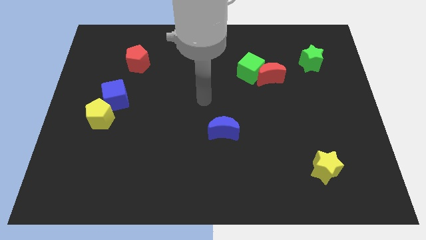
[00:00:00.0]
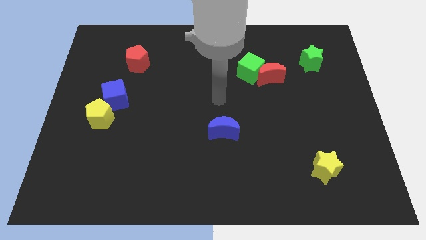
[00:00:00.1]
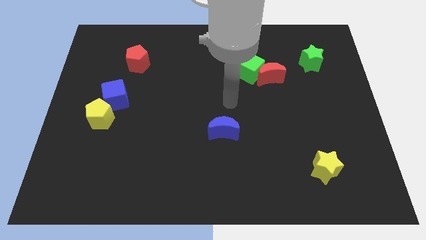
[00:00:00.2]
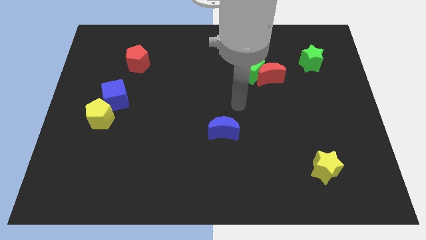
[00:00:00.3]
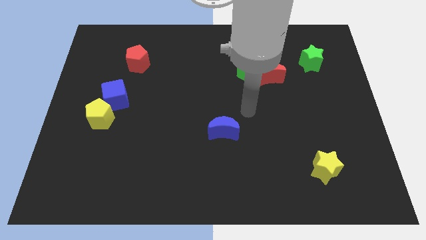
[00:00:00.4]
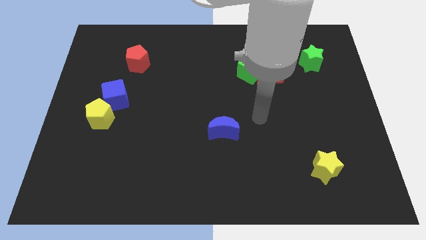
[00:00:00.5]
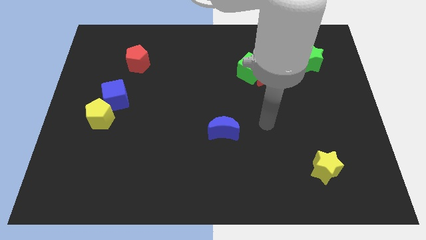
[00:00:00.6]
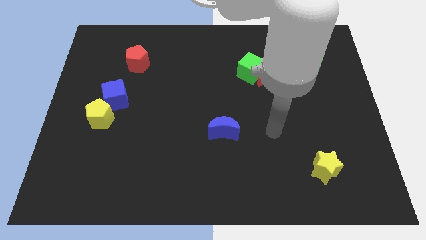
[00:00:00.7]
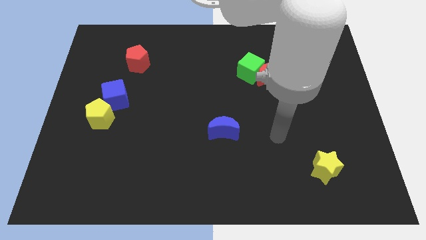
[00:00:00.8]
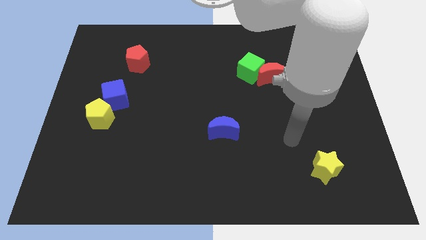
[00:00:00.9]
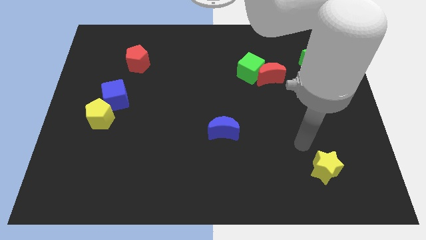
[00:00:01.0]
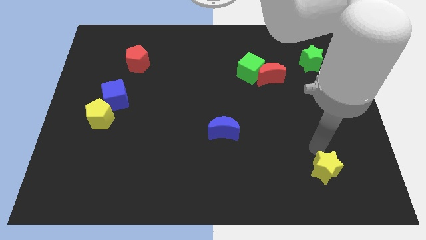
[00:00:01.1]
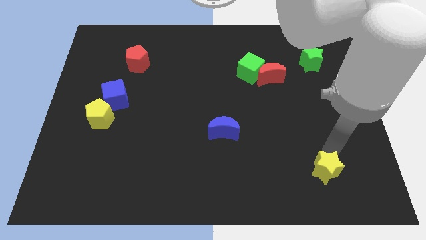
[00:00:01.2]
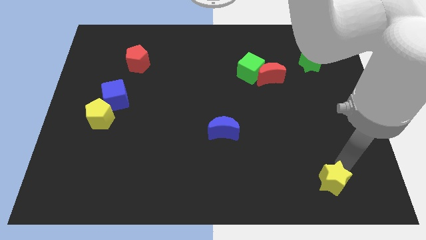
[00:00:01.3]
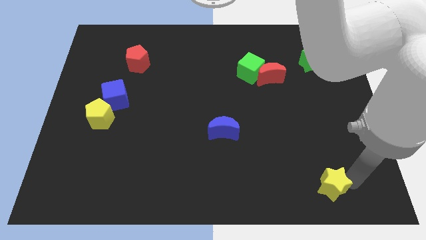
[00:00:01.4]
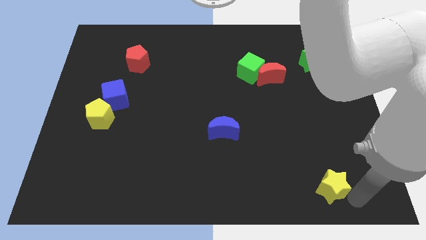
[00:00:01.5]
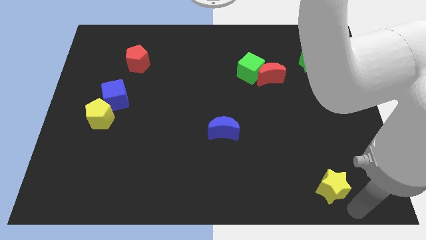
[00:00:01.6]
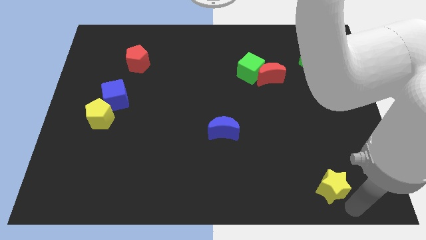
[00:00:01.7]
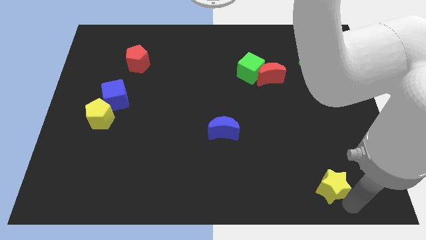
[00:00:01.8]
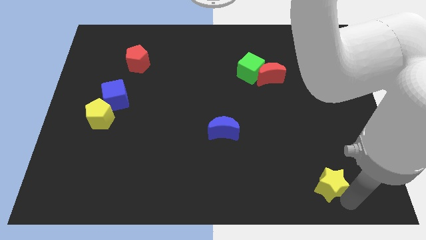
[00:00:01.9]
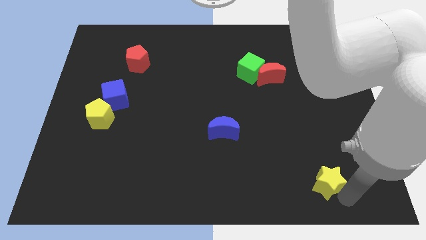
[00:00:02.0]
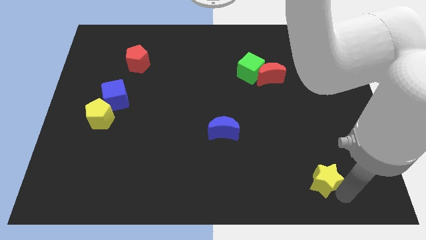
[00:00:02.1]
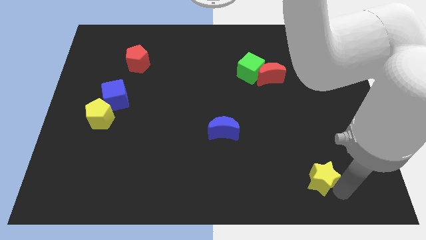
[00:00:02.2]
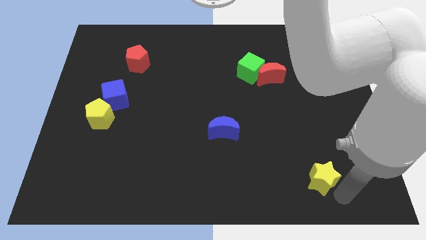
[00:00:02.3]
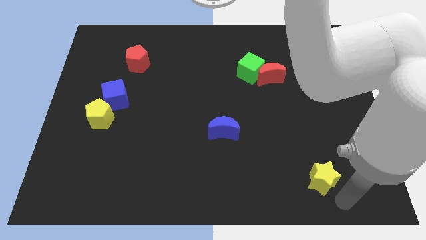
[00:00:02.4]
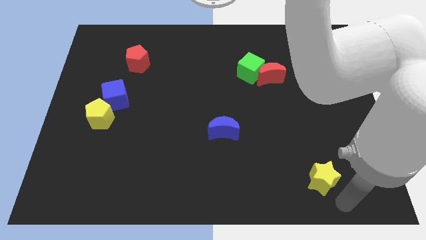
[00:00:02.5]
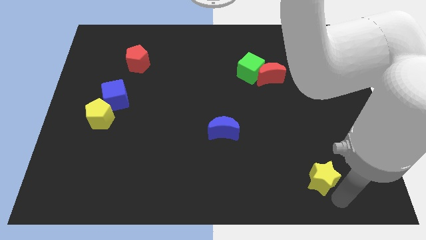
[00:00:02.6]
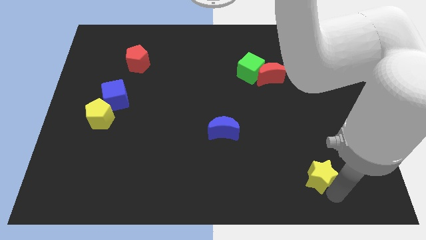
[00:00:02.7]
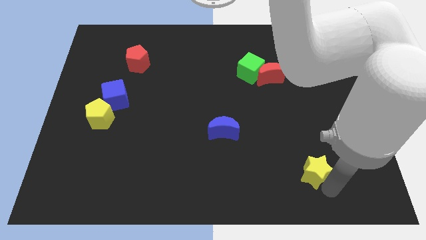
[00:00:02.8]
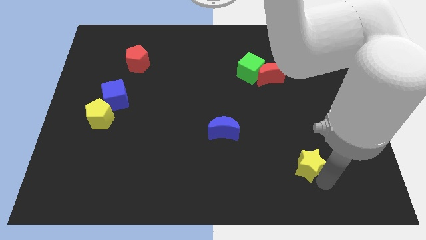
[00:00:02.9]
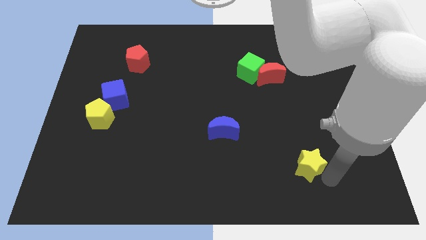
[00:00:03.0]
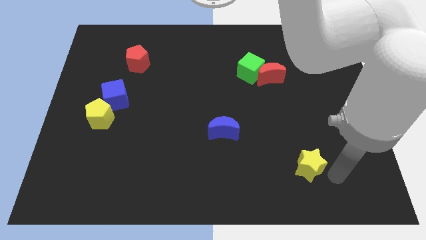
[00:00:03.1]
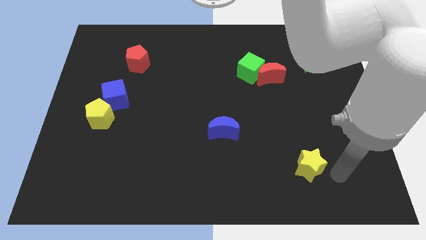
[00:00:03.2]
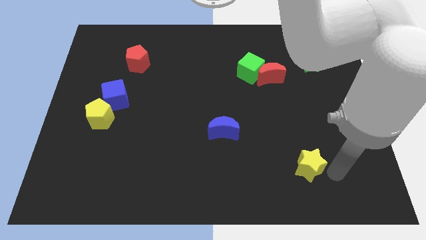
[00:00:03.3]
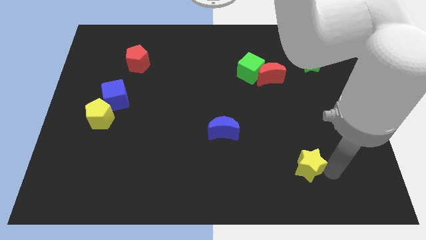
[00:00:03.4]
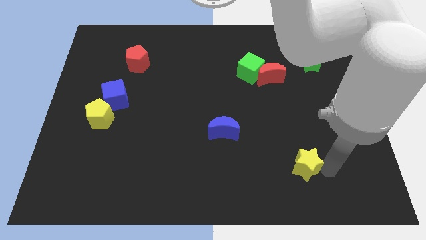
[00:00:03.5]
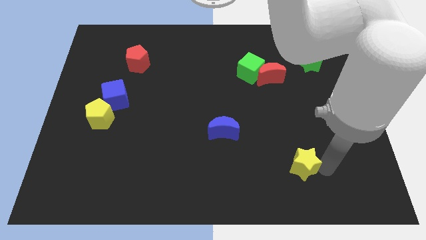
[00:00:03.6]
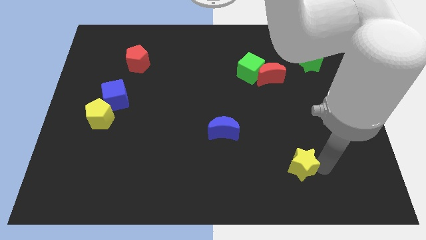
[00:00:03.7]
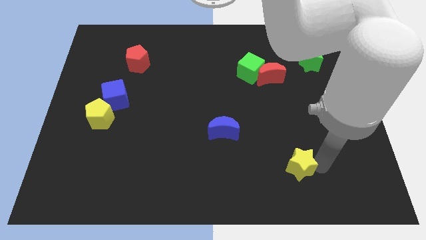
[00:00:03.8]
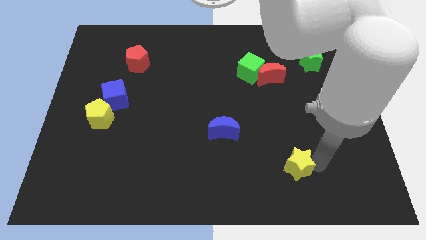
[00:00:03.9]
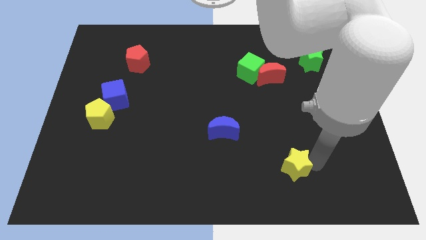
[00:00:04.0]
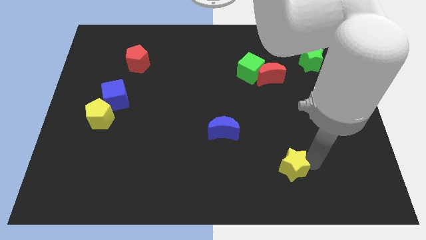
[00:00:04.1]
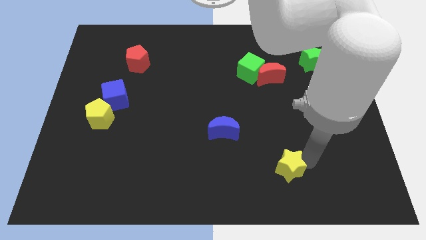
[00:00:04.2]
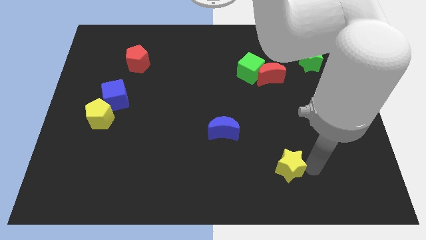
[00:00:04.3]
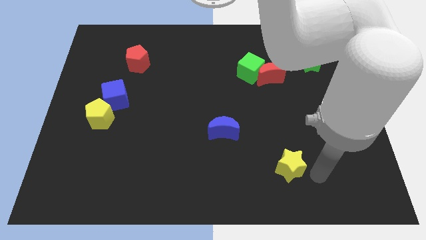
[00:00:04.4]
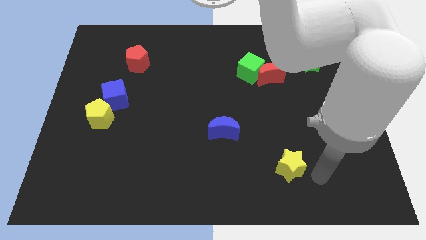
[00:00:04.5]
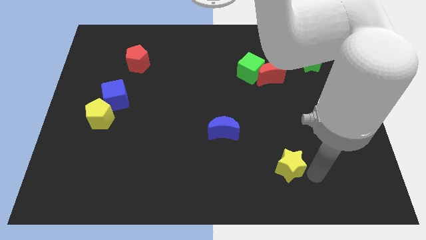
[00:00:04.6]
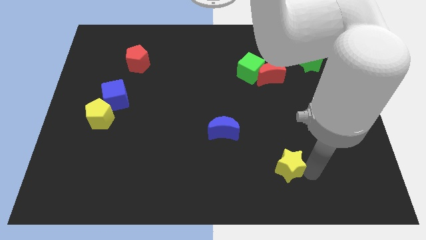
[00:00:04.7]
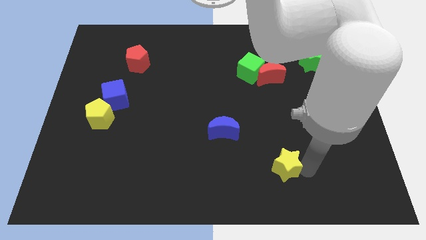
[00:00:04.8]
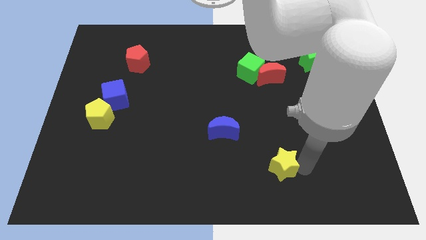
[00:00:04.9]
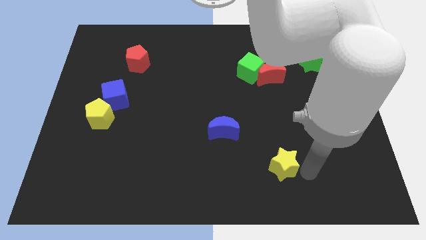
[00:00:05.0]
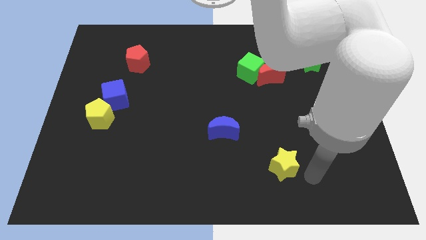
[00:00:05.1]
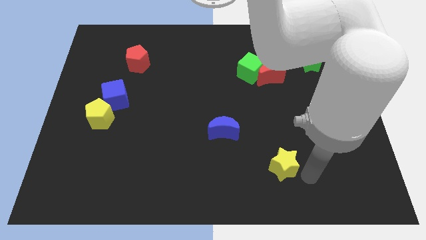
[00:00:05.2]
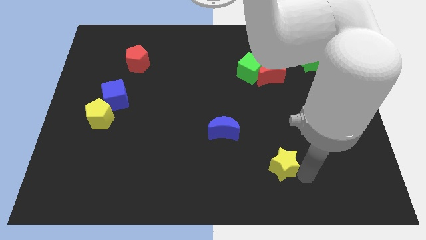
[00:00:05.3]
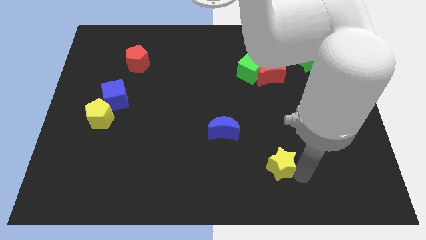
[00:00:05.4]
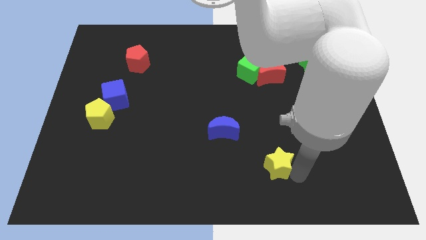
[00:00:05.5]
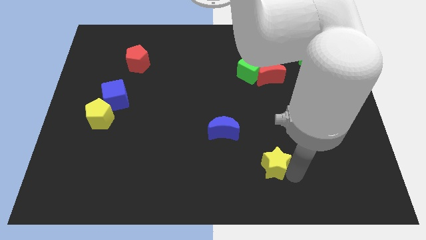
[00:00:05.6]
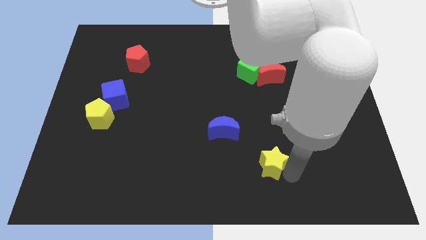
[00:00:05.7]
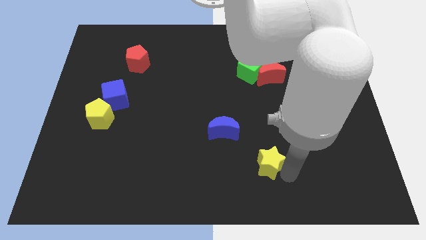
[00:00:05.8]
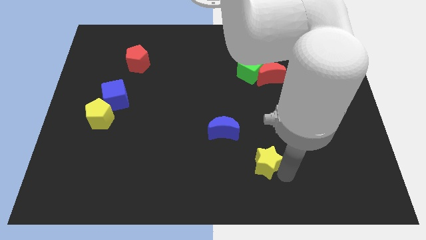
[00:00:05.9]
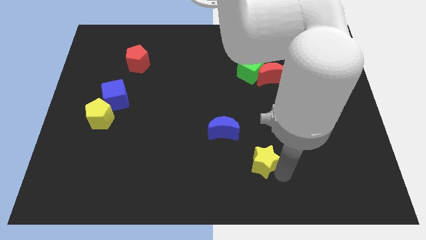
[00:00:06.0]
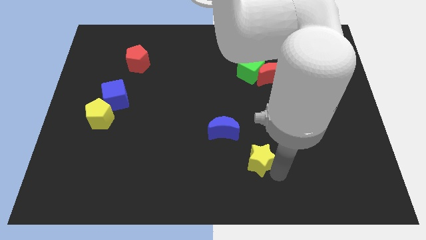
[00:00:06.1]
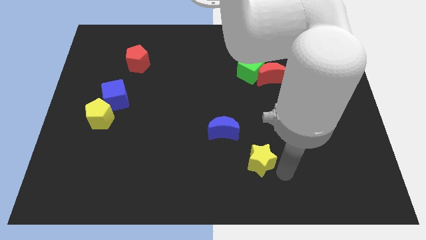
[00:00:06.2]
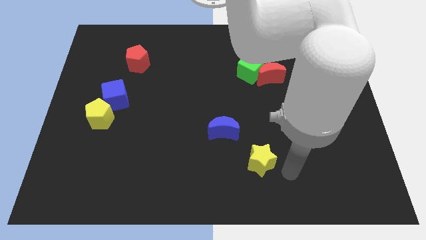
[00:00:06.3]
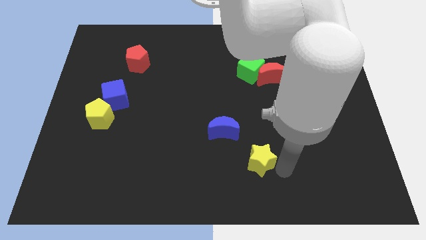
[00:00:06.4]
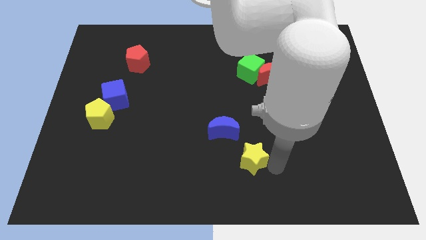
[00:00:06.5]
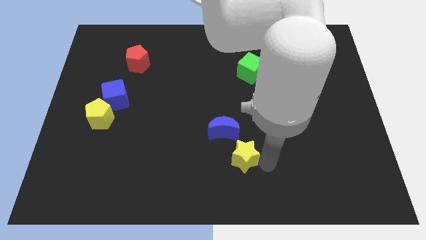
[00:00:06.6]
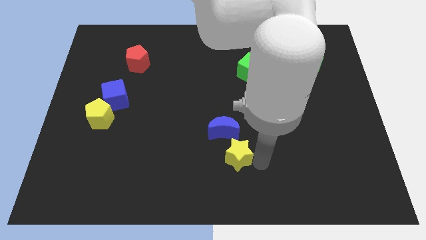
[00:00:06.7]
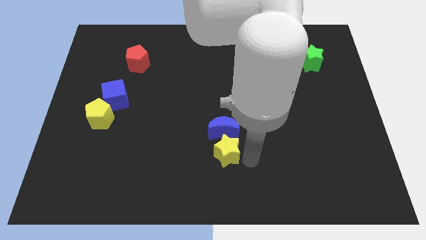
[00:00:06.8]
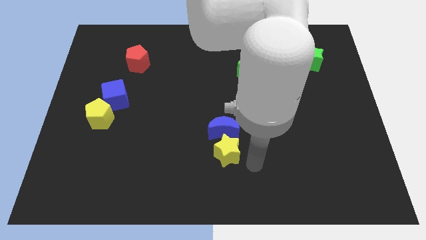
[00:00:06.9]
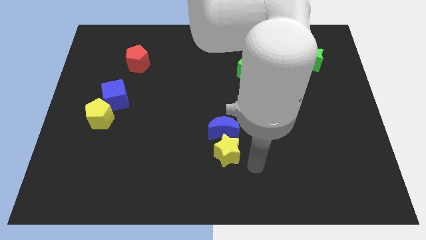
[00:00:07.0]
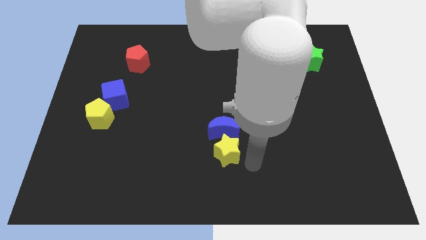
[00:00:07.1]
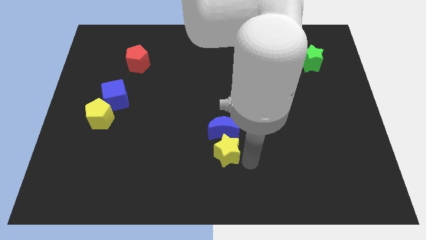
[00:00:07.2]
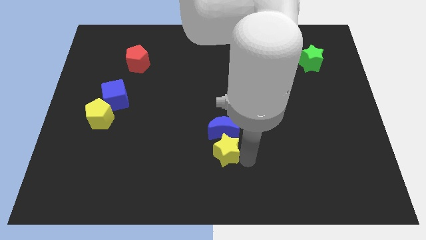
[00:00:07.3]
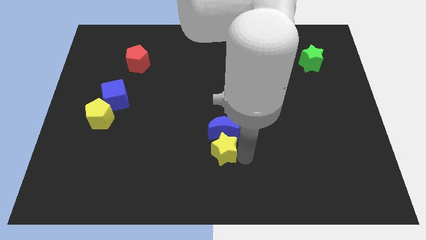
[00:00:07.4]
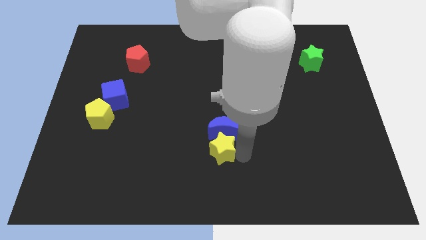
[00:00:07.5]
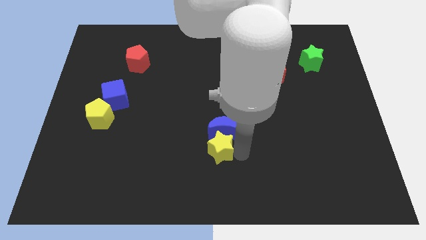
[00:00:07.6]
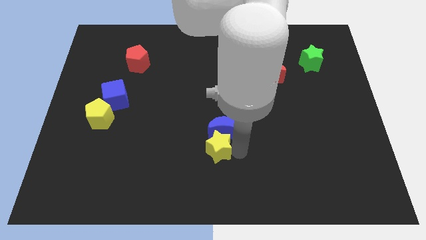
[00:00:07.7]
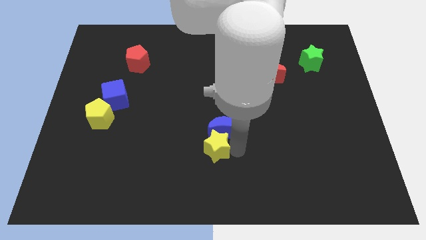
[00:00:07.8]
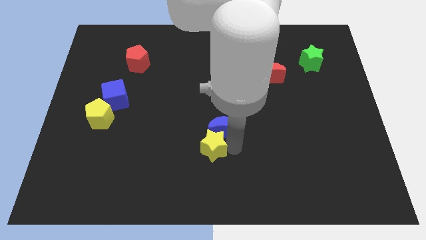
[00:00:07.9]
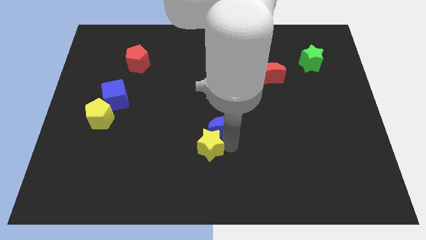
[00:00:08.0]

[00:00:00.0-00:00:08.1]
put the yellow star left of the blue moon
